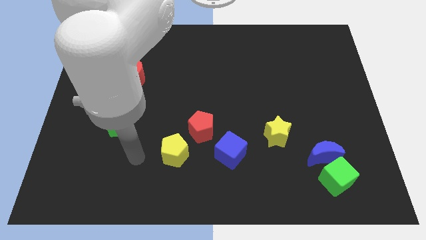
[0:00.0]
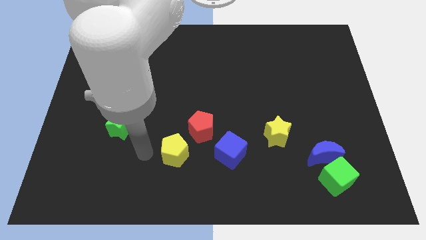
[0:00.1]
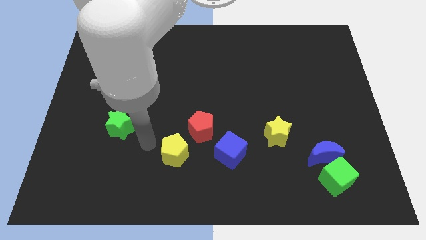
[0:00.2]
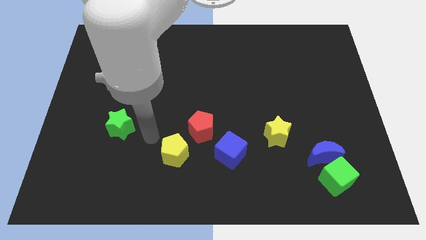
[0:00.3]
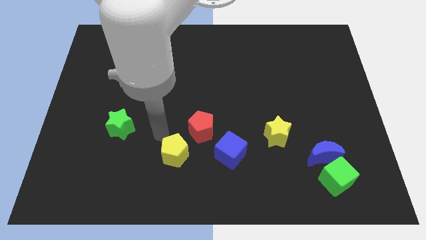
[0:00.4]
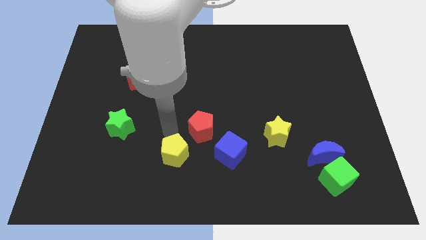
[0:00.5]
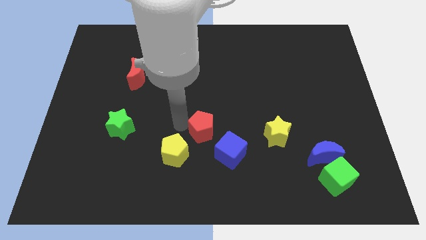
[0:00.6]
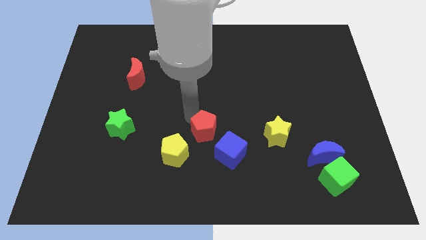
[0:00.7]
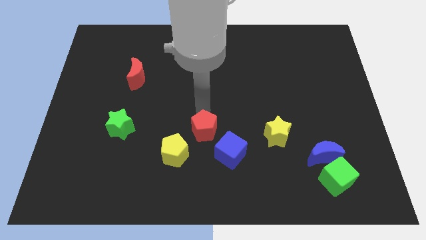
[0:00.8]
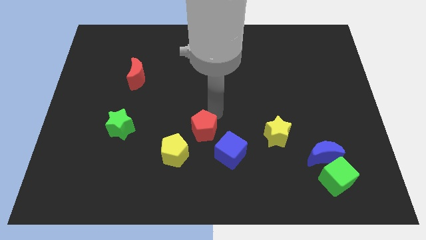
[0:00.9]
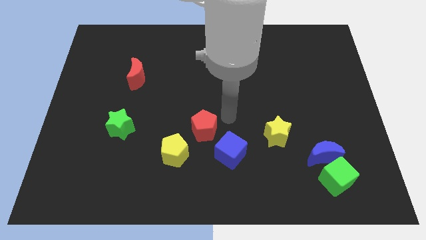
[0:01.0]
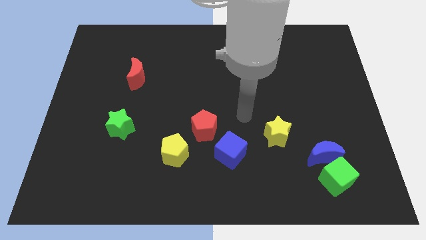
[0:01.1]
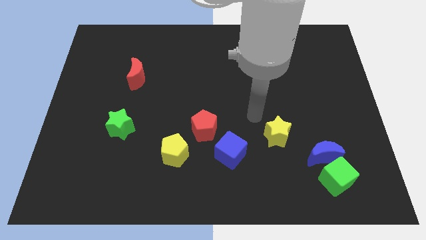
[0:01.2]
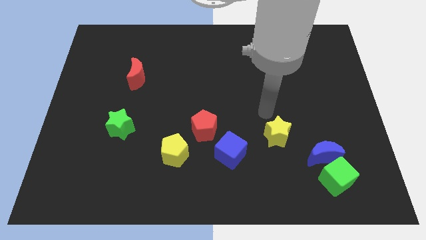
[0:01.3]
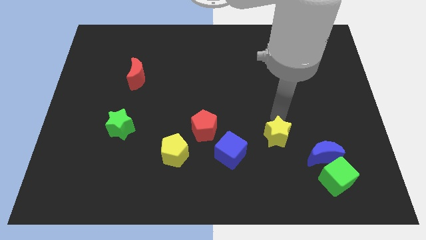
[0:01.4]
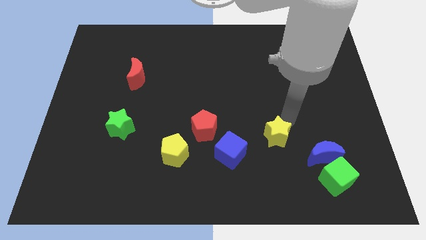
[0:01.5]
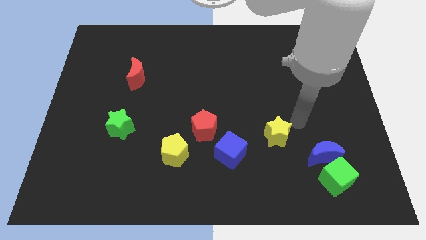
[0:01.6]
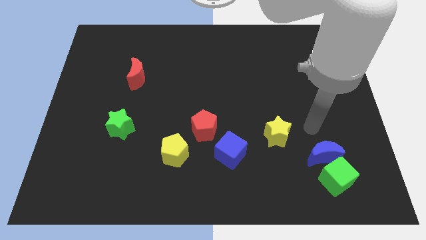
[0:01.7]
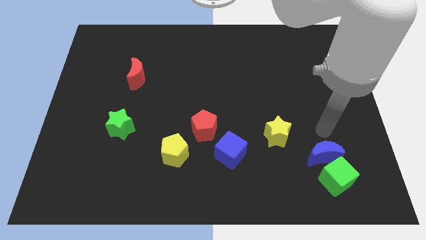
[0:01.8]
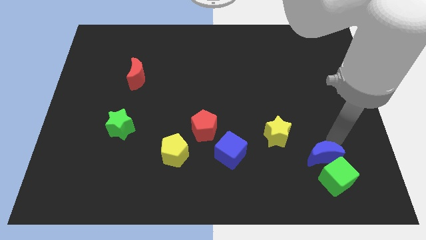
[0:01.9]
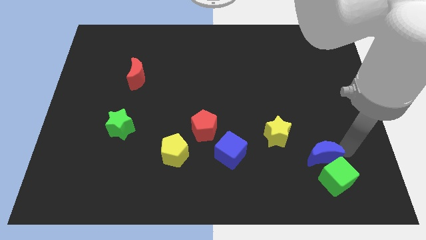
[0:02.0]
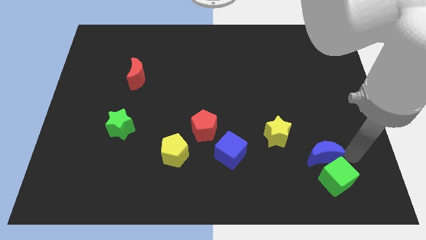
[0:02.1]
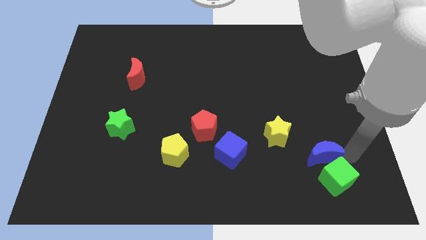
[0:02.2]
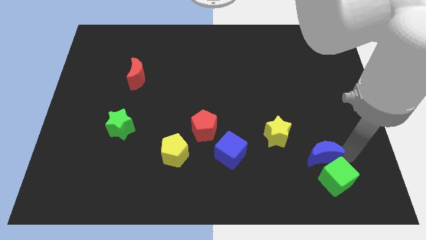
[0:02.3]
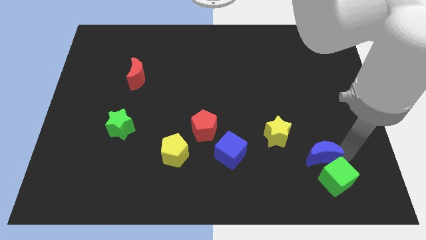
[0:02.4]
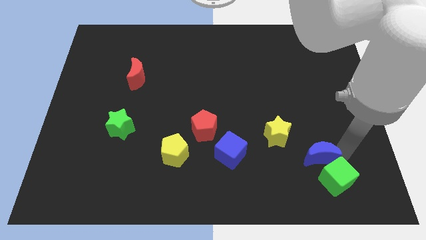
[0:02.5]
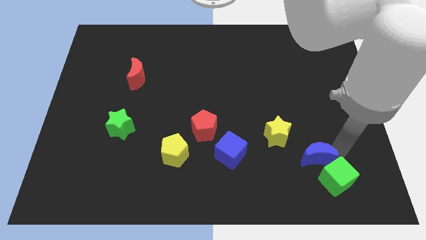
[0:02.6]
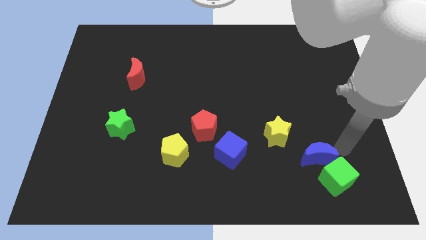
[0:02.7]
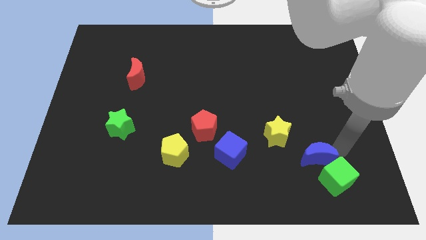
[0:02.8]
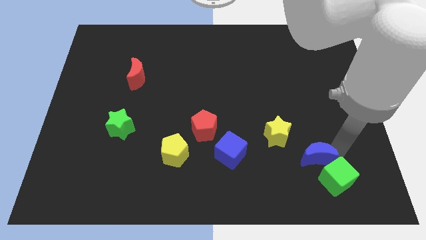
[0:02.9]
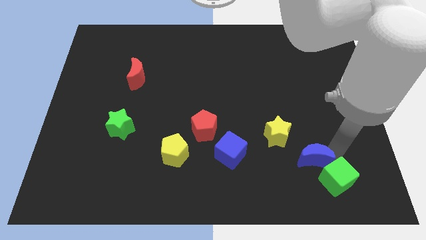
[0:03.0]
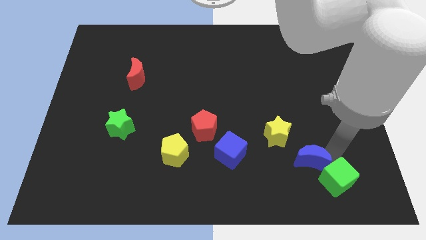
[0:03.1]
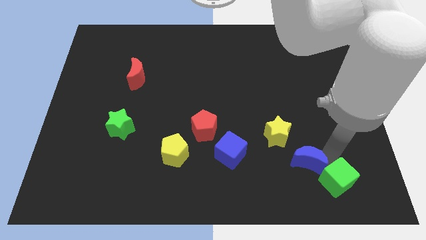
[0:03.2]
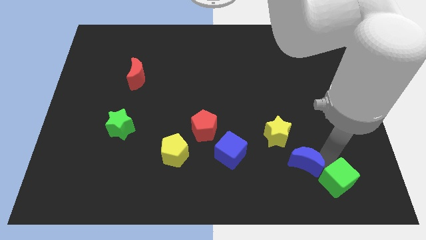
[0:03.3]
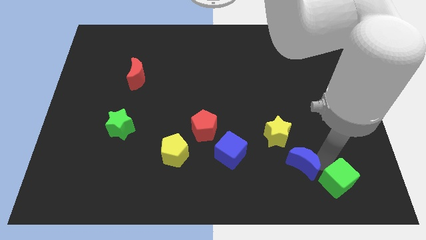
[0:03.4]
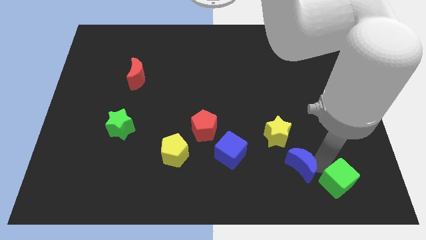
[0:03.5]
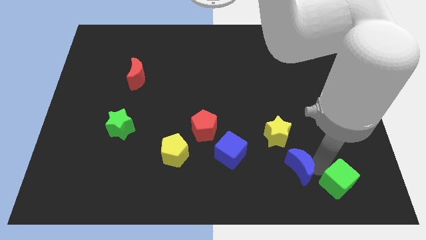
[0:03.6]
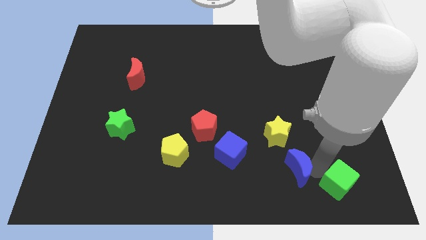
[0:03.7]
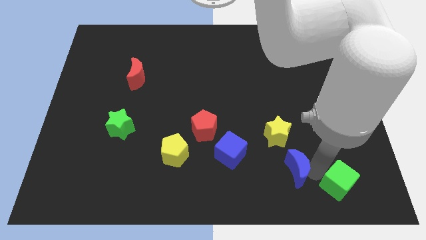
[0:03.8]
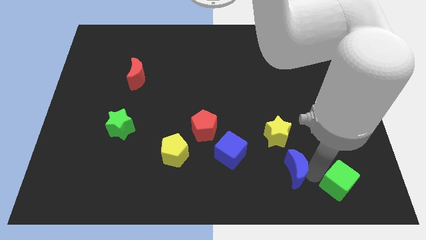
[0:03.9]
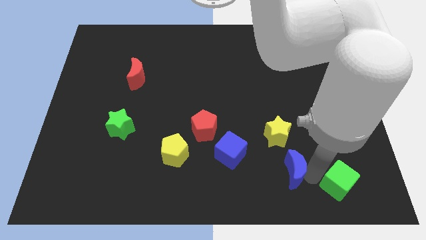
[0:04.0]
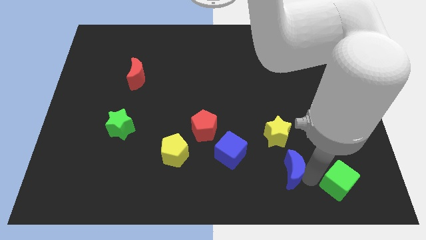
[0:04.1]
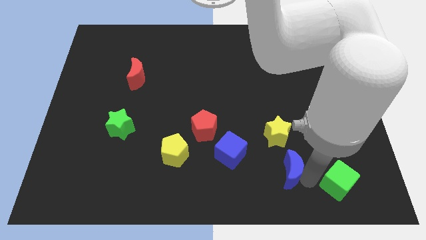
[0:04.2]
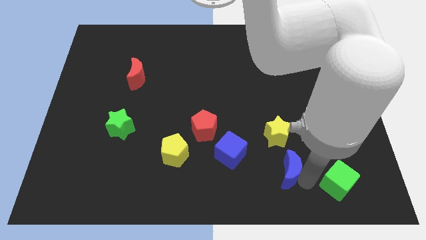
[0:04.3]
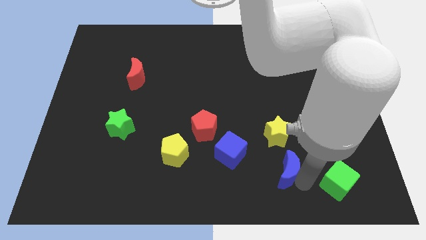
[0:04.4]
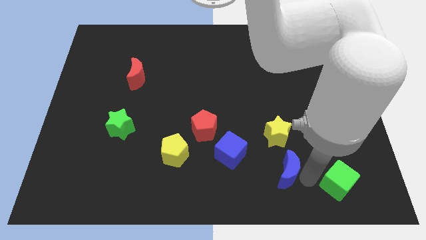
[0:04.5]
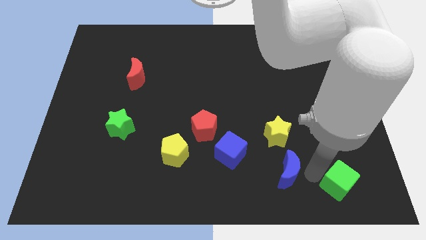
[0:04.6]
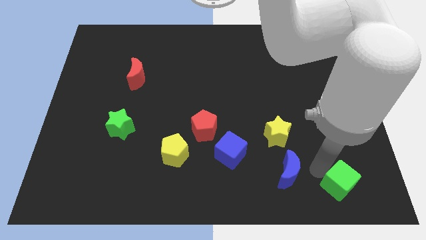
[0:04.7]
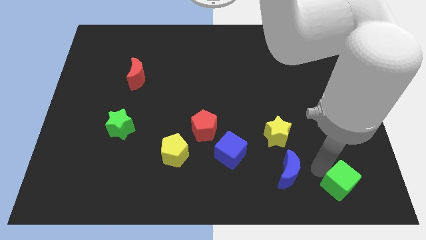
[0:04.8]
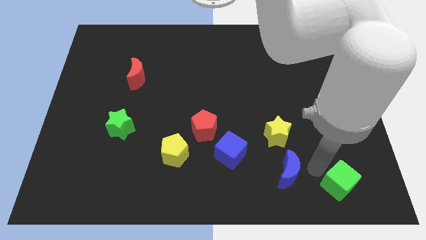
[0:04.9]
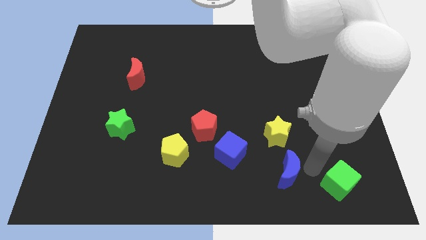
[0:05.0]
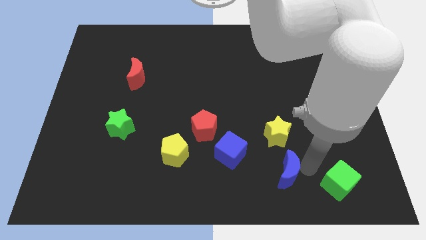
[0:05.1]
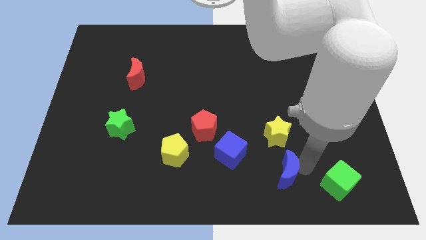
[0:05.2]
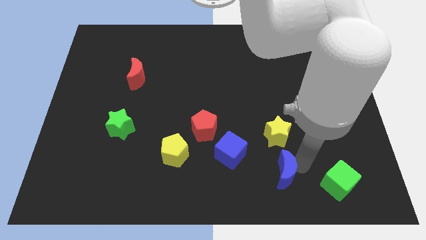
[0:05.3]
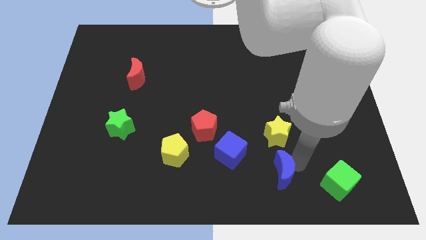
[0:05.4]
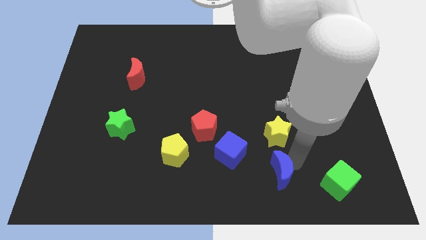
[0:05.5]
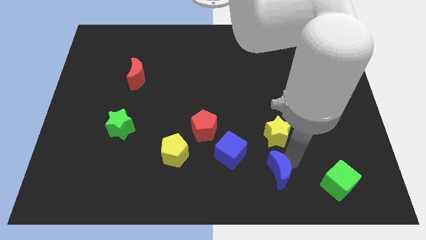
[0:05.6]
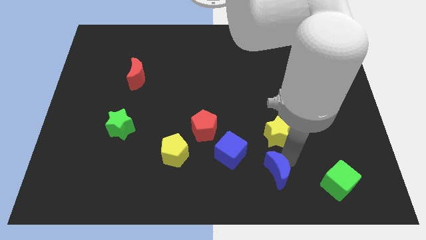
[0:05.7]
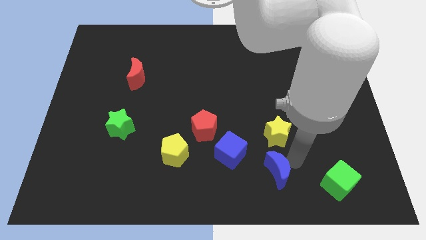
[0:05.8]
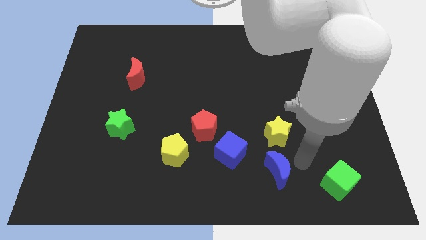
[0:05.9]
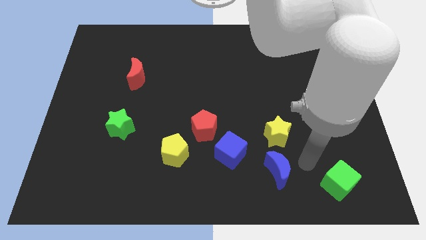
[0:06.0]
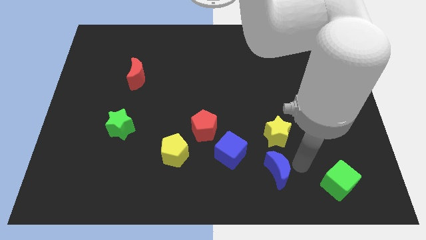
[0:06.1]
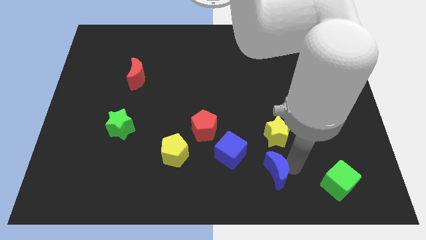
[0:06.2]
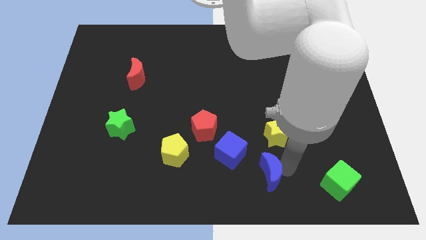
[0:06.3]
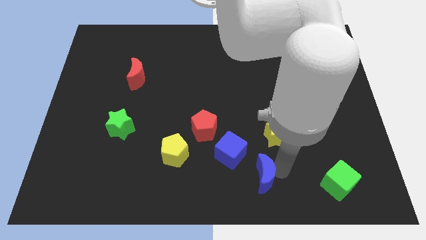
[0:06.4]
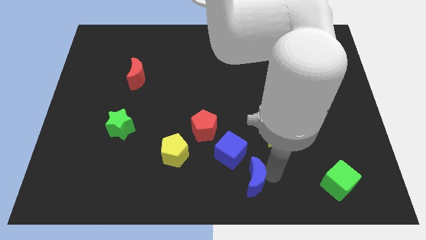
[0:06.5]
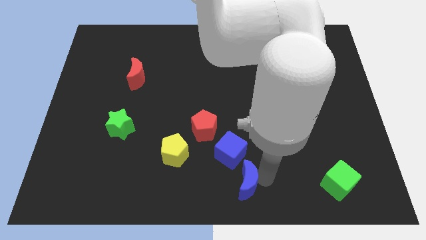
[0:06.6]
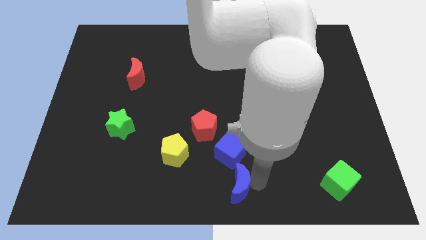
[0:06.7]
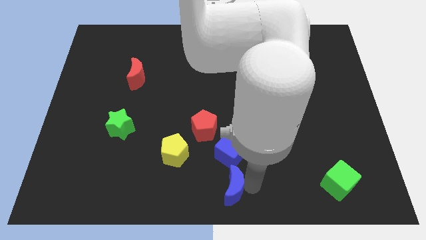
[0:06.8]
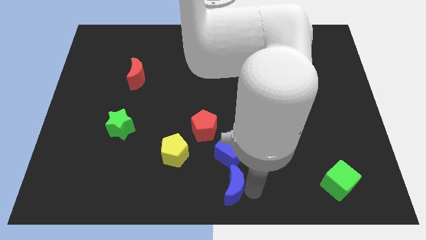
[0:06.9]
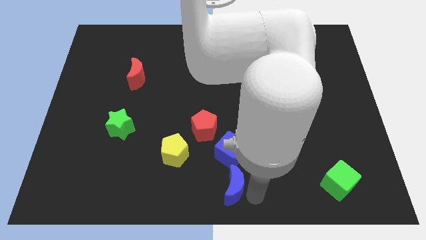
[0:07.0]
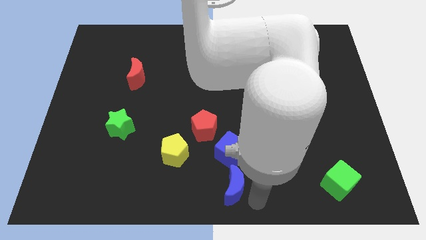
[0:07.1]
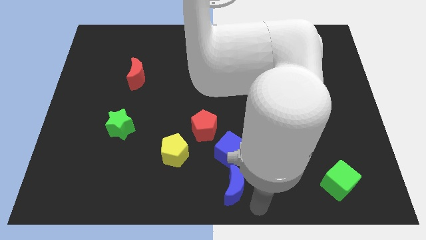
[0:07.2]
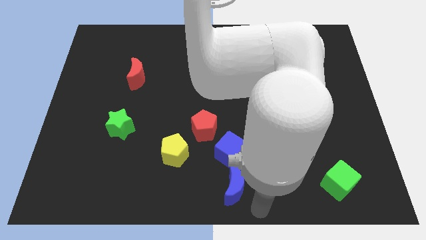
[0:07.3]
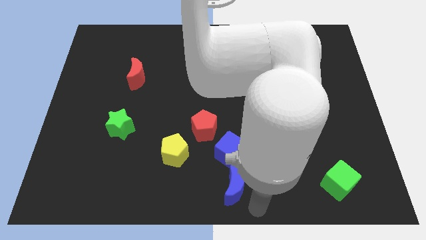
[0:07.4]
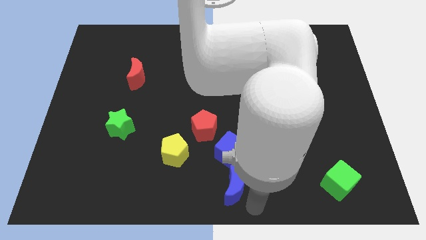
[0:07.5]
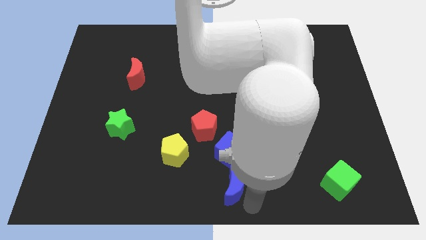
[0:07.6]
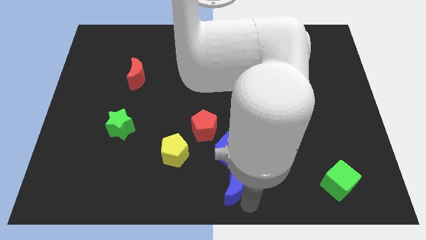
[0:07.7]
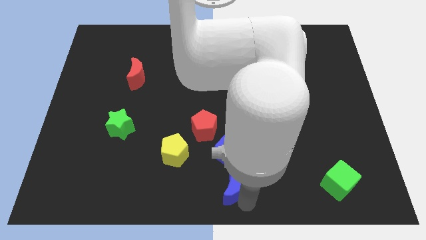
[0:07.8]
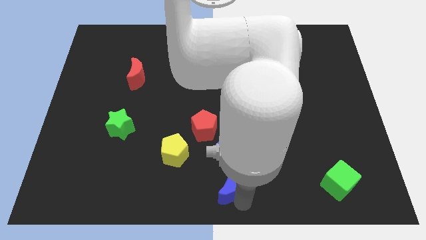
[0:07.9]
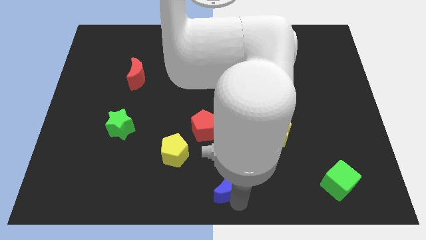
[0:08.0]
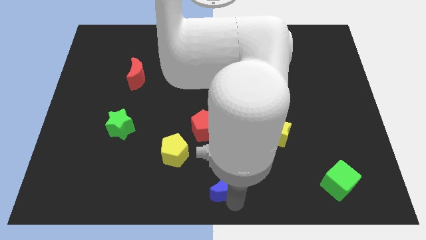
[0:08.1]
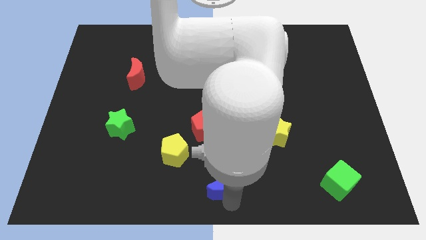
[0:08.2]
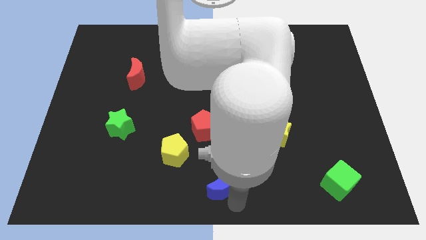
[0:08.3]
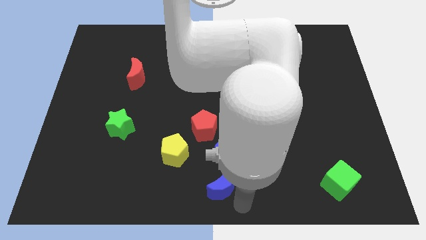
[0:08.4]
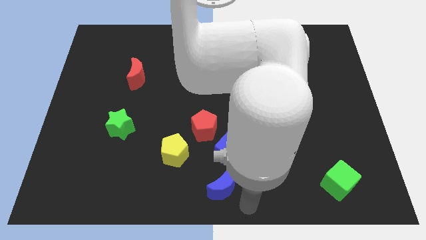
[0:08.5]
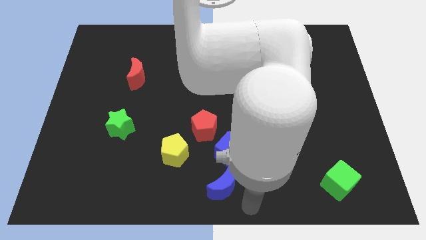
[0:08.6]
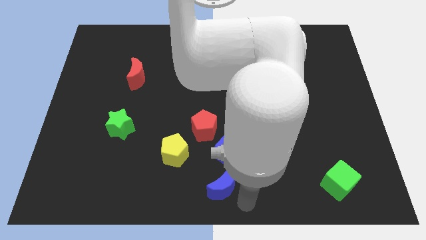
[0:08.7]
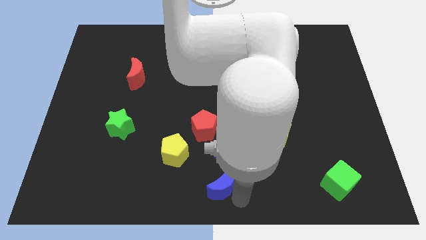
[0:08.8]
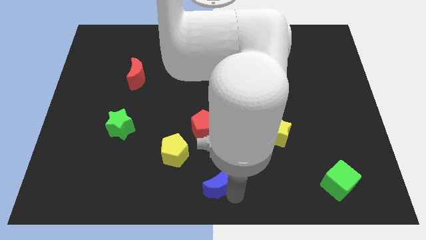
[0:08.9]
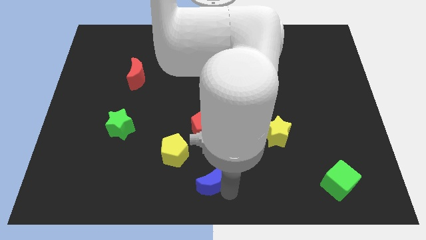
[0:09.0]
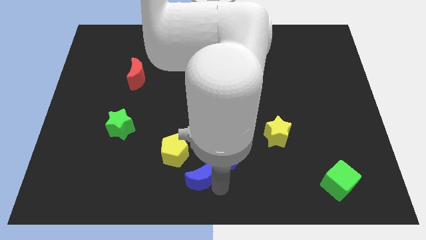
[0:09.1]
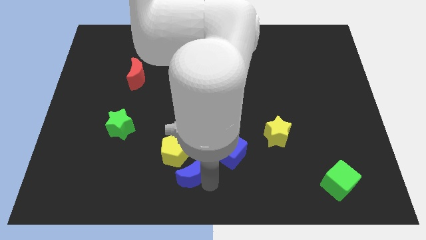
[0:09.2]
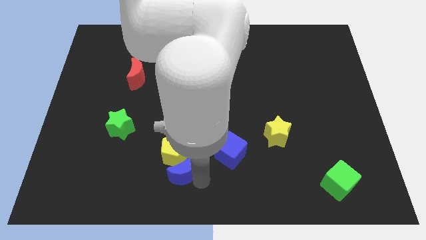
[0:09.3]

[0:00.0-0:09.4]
push the blue moon next to the yellow pentagon
